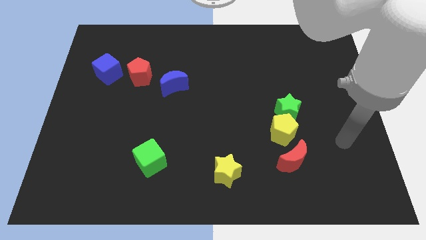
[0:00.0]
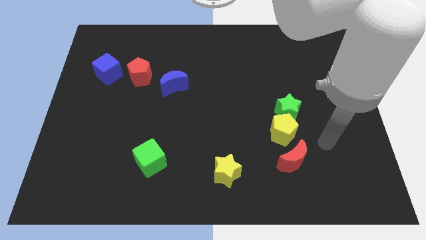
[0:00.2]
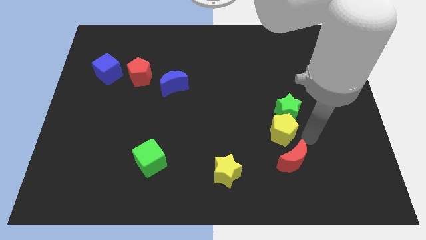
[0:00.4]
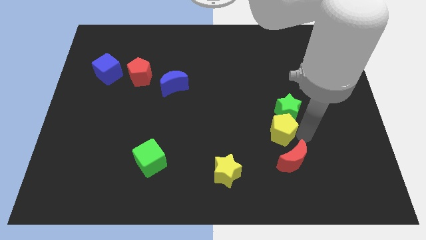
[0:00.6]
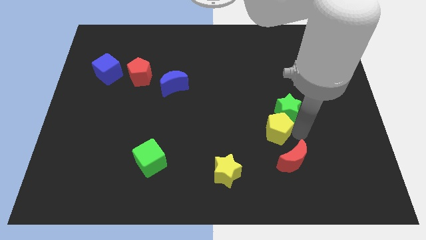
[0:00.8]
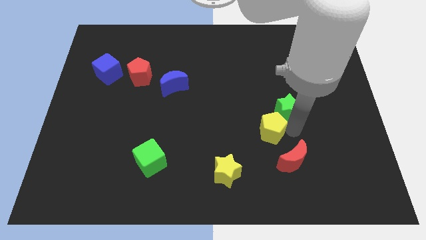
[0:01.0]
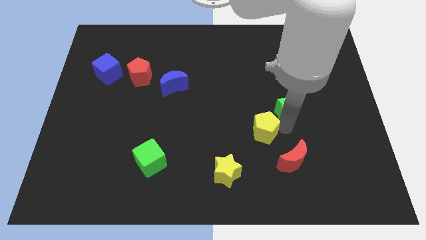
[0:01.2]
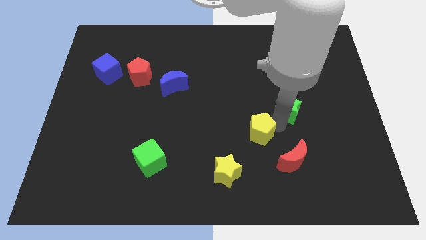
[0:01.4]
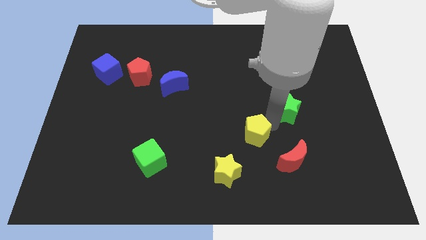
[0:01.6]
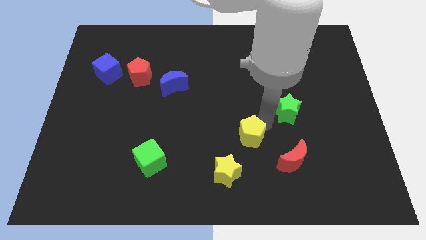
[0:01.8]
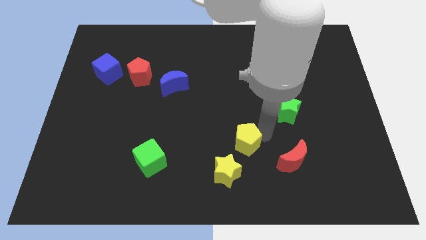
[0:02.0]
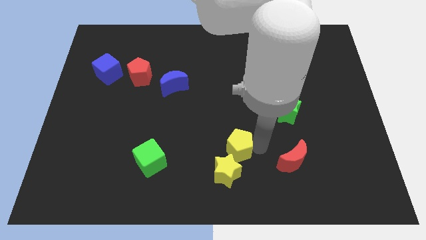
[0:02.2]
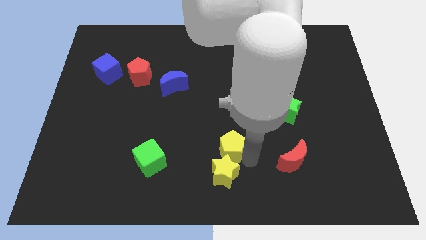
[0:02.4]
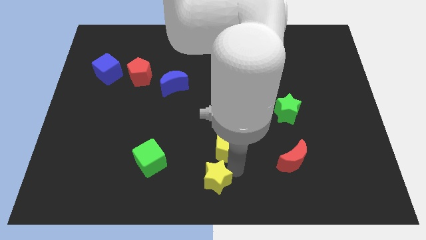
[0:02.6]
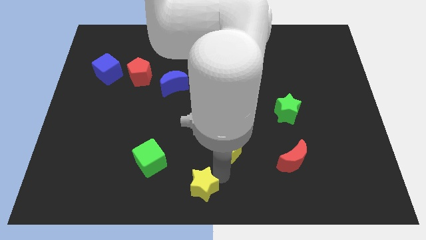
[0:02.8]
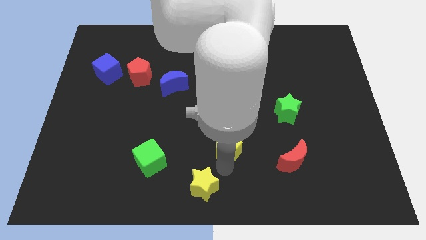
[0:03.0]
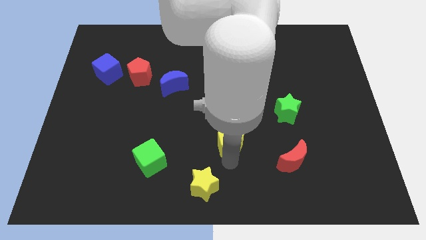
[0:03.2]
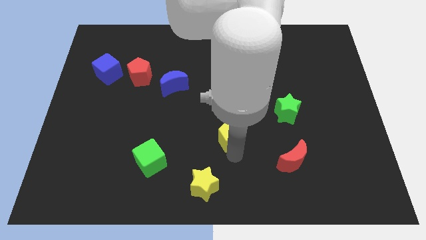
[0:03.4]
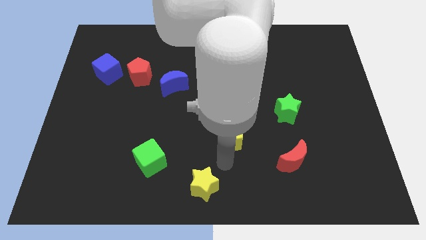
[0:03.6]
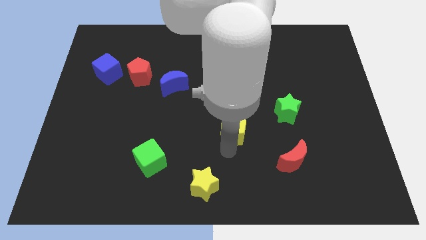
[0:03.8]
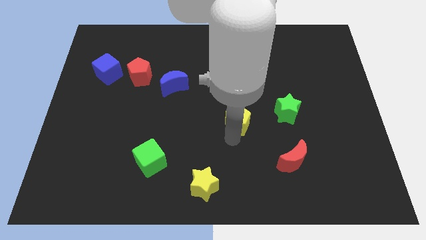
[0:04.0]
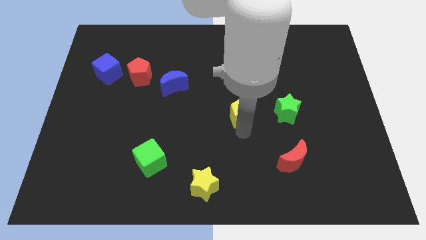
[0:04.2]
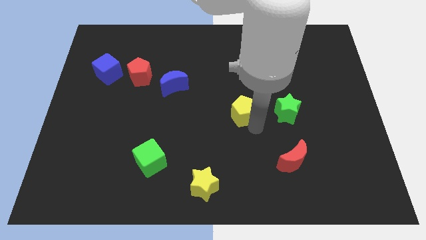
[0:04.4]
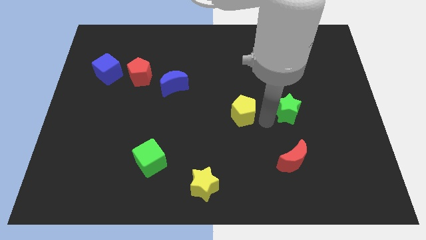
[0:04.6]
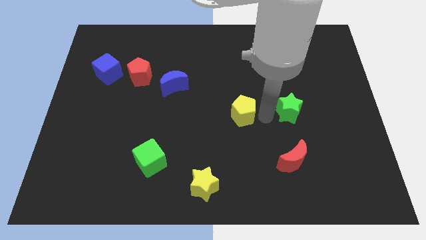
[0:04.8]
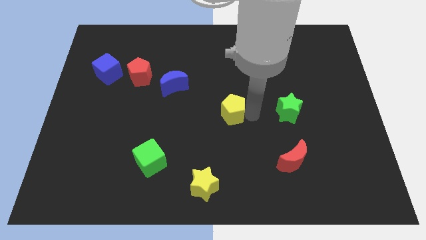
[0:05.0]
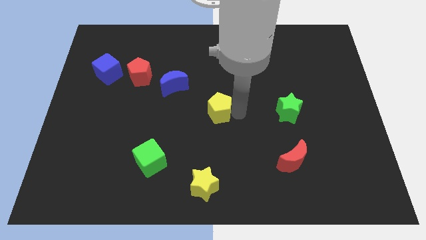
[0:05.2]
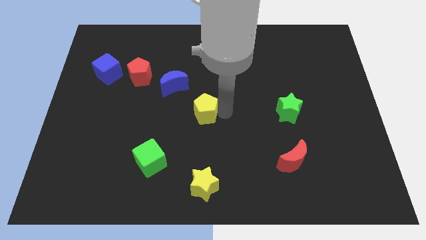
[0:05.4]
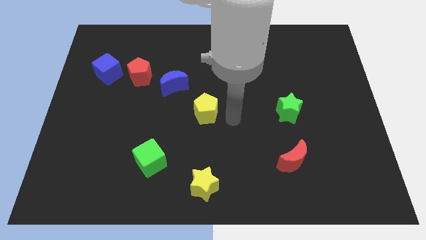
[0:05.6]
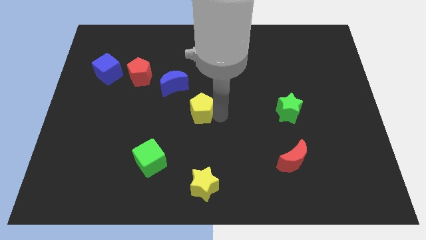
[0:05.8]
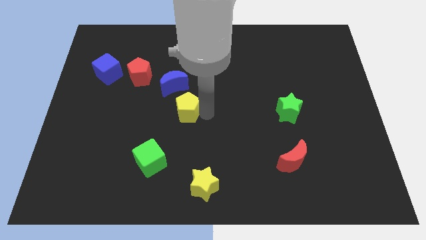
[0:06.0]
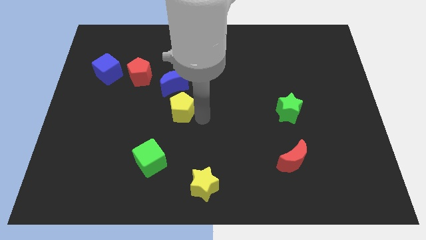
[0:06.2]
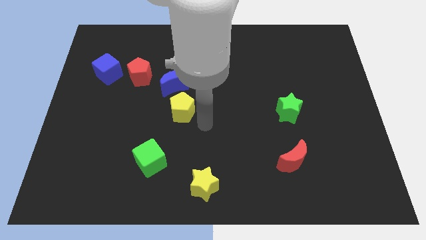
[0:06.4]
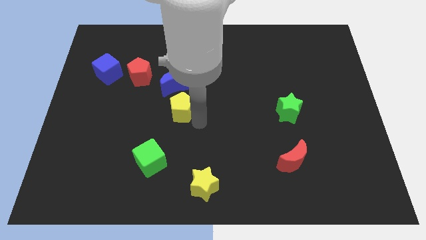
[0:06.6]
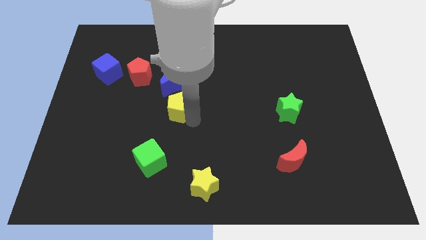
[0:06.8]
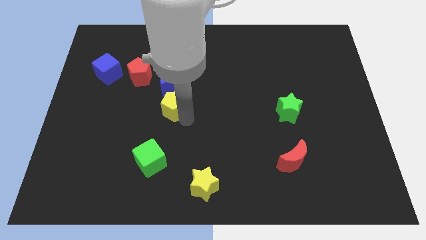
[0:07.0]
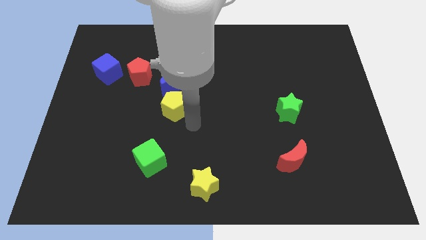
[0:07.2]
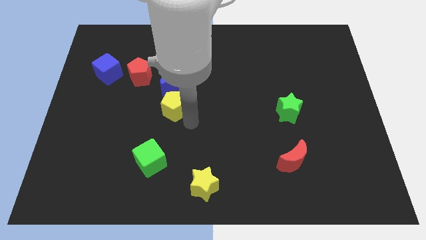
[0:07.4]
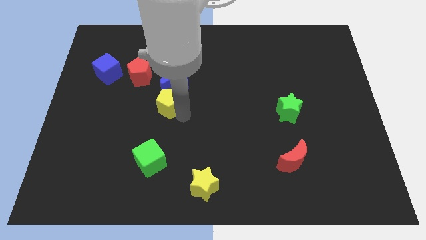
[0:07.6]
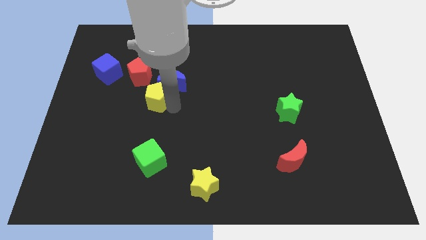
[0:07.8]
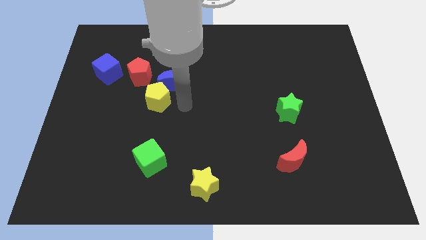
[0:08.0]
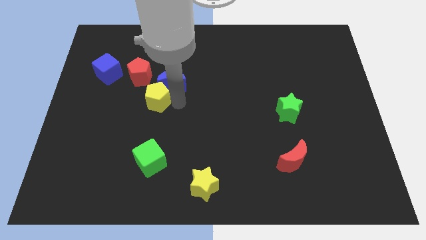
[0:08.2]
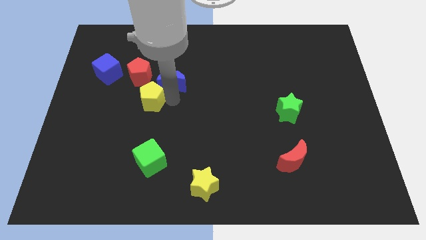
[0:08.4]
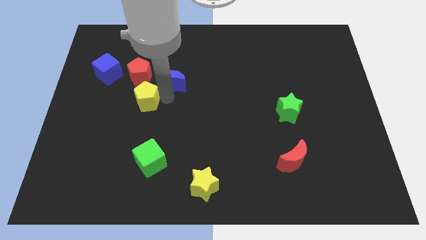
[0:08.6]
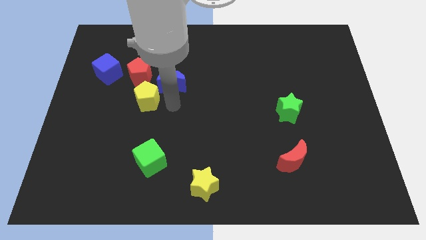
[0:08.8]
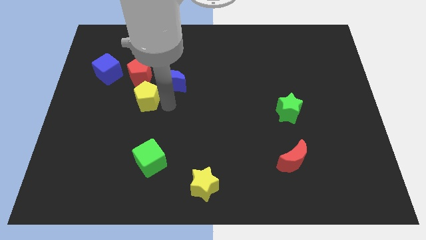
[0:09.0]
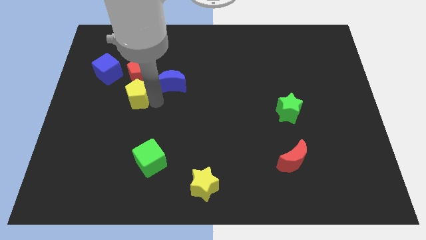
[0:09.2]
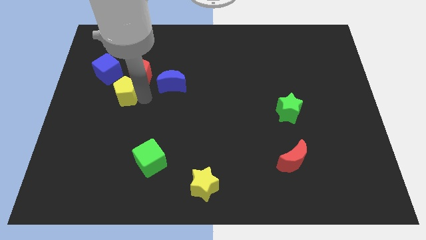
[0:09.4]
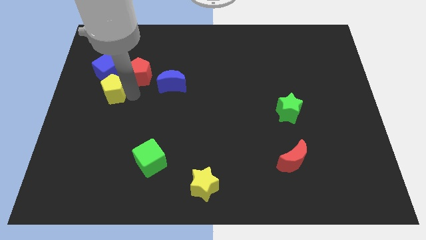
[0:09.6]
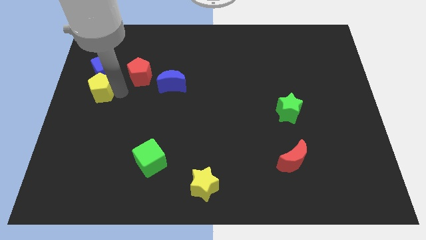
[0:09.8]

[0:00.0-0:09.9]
put the yellow pentagon just left of the red pentagon

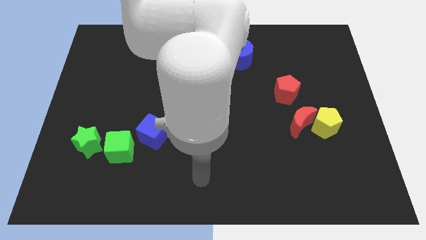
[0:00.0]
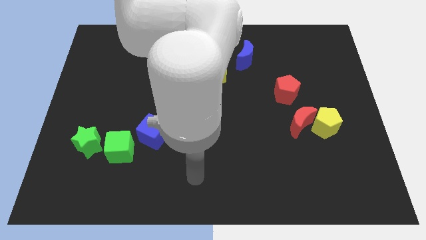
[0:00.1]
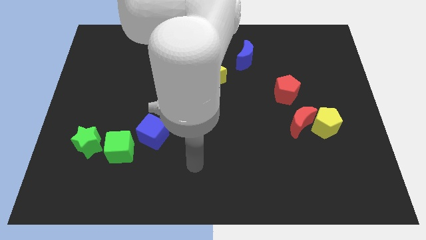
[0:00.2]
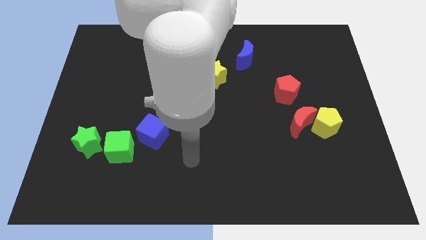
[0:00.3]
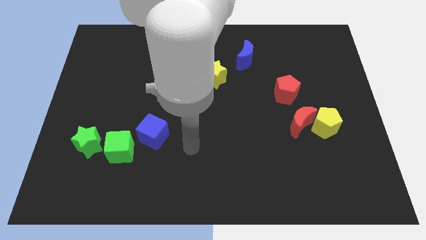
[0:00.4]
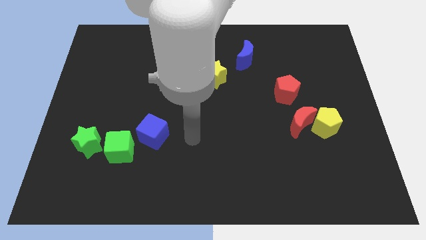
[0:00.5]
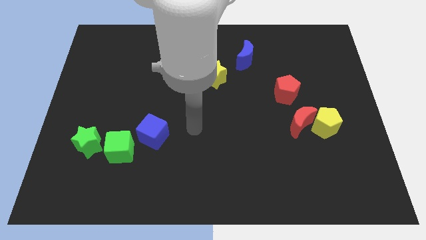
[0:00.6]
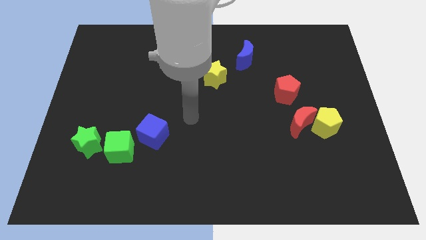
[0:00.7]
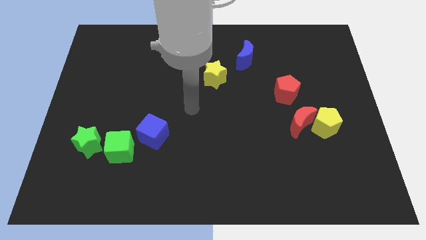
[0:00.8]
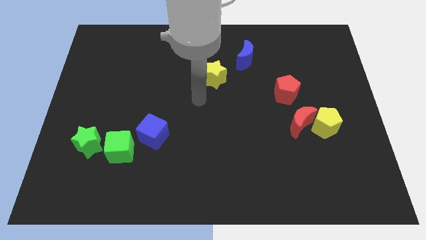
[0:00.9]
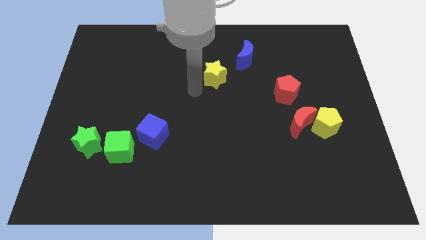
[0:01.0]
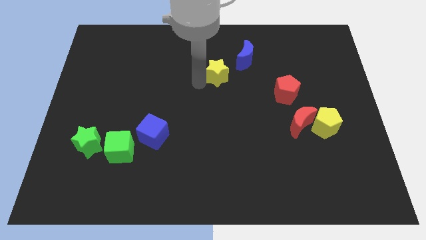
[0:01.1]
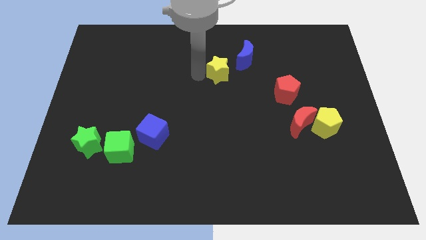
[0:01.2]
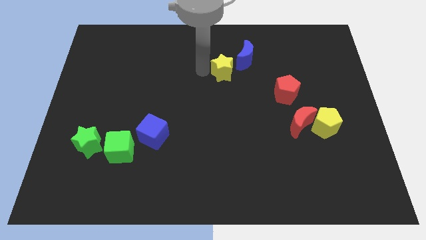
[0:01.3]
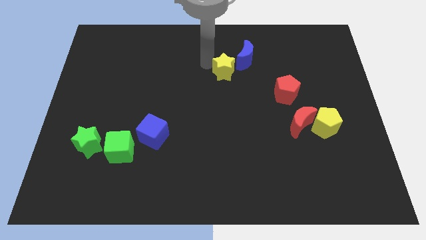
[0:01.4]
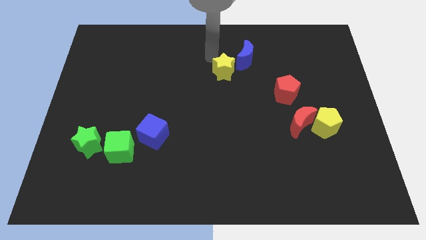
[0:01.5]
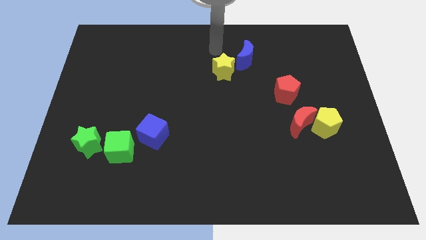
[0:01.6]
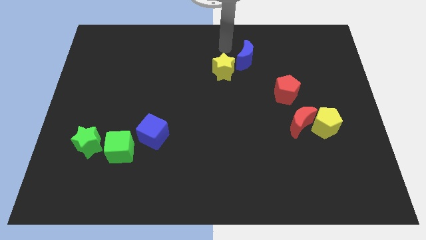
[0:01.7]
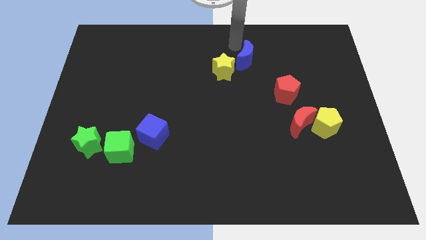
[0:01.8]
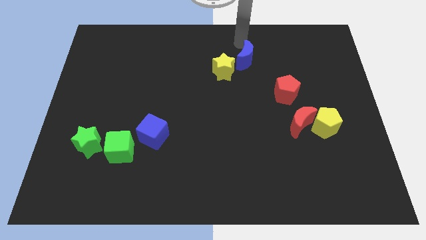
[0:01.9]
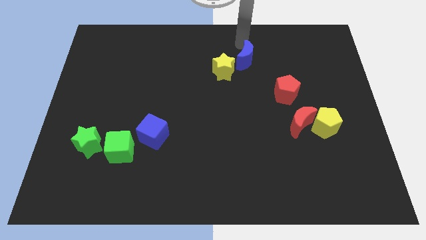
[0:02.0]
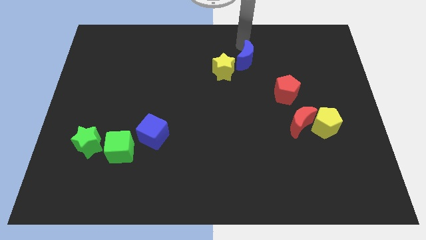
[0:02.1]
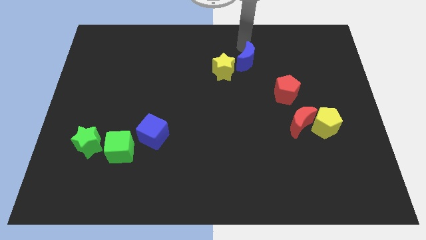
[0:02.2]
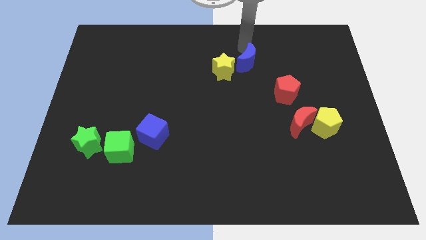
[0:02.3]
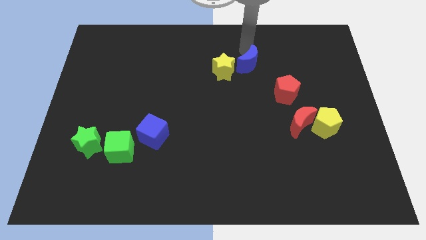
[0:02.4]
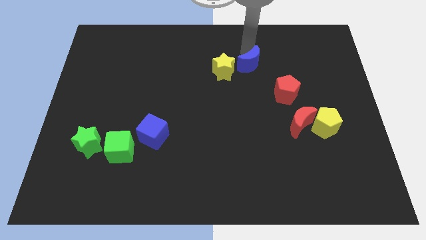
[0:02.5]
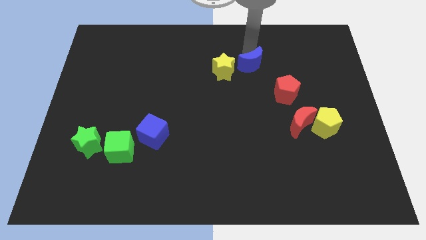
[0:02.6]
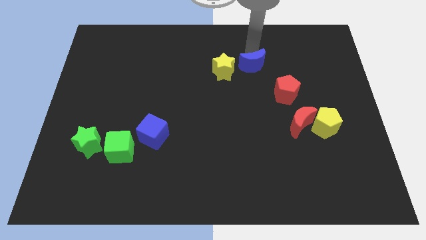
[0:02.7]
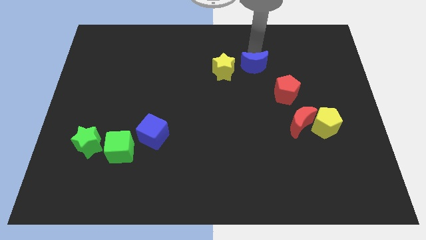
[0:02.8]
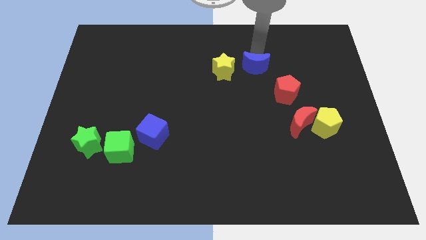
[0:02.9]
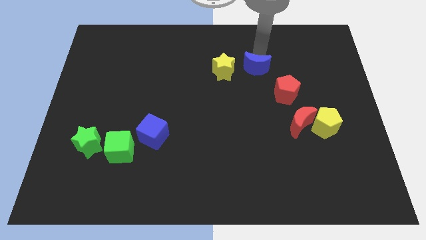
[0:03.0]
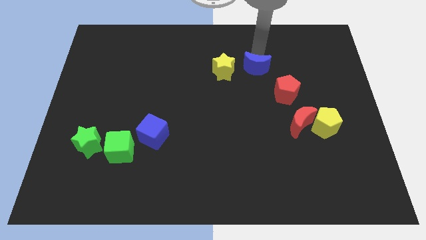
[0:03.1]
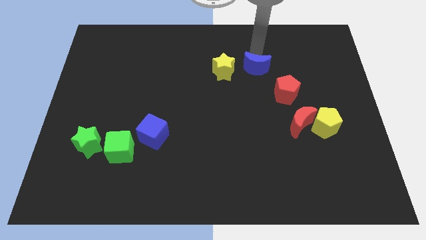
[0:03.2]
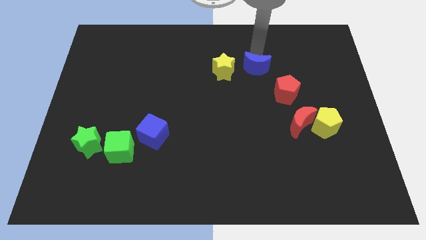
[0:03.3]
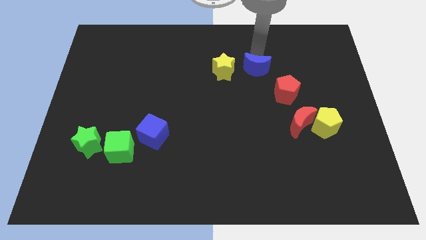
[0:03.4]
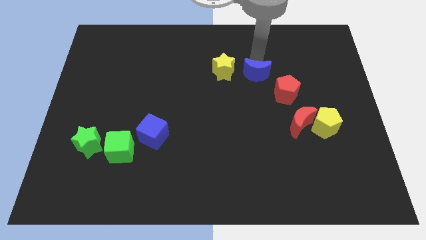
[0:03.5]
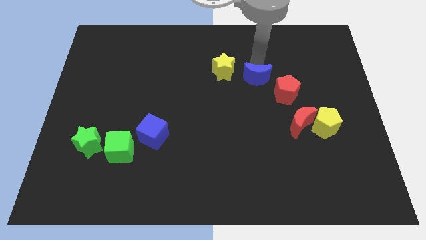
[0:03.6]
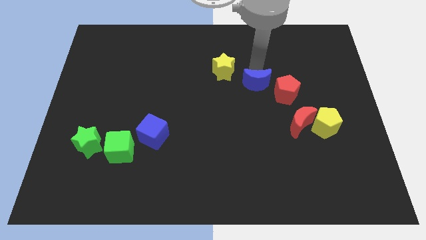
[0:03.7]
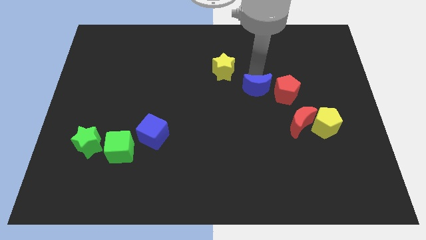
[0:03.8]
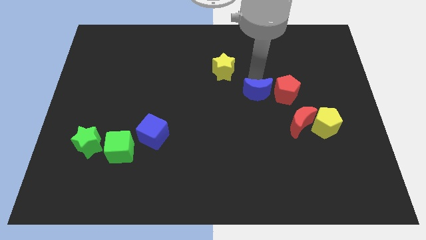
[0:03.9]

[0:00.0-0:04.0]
move the blue moon to the top left side of the red moon
